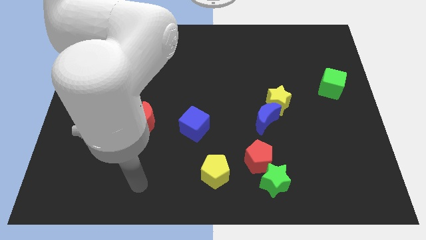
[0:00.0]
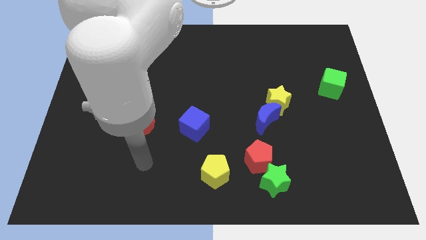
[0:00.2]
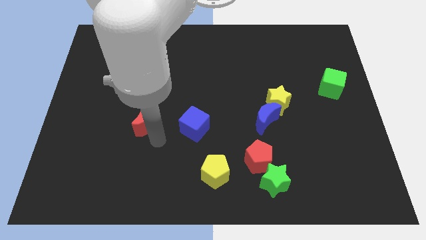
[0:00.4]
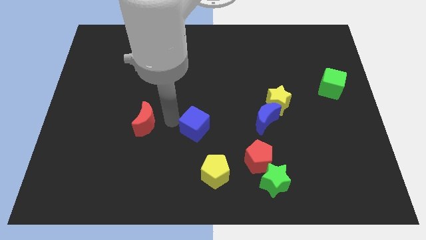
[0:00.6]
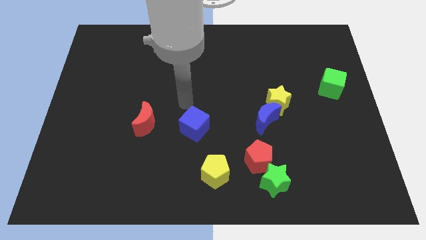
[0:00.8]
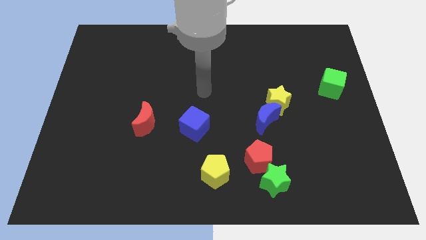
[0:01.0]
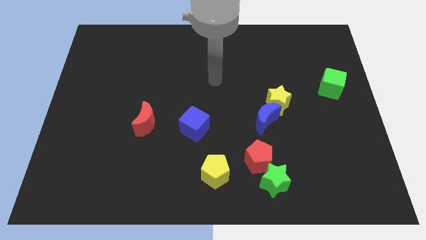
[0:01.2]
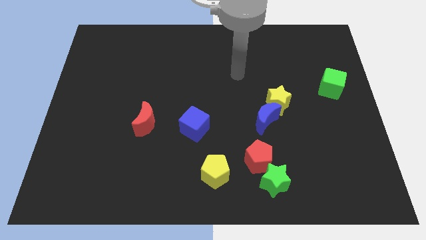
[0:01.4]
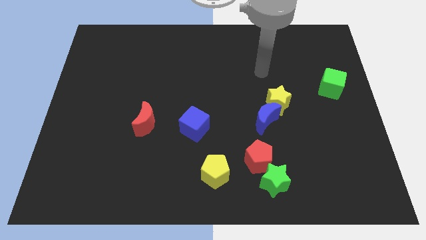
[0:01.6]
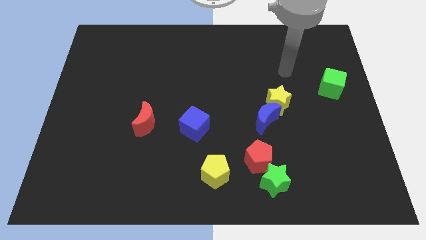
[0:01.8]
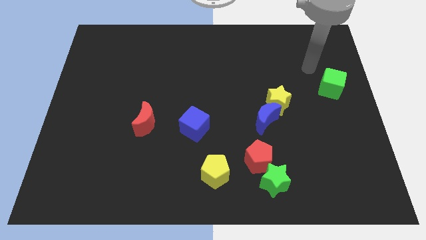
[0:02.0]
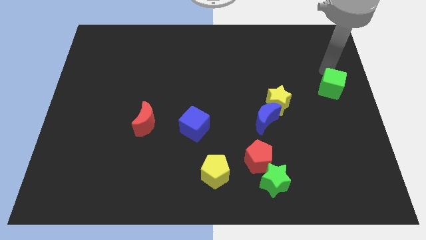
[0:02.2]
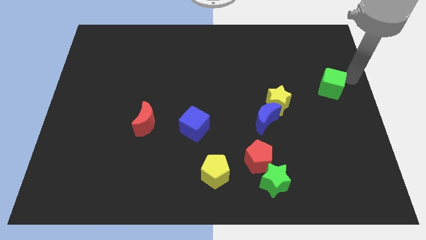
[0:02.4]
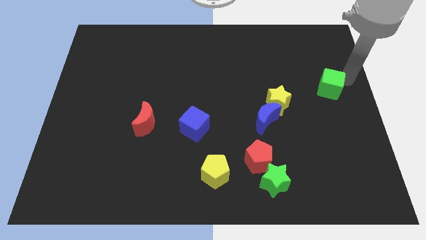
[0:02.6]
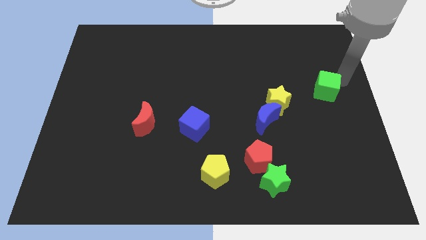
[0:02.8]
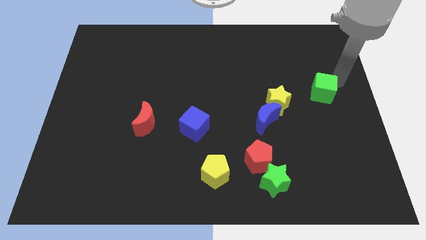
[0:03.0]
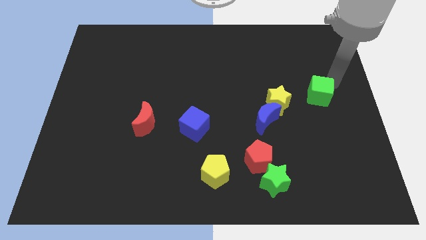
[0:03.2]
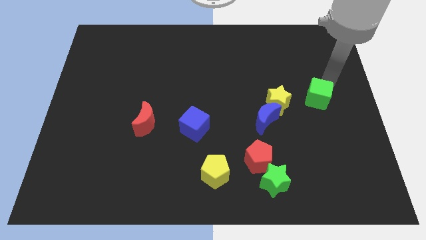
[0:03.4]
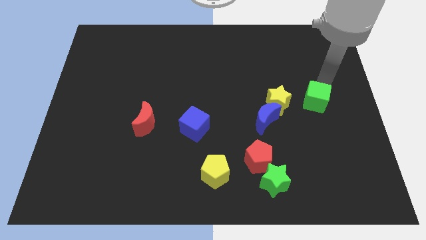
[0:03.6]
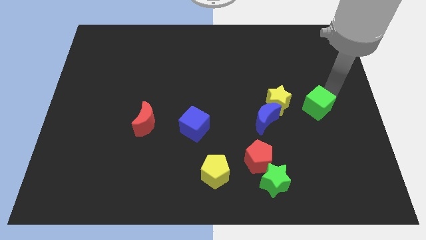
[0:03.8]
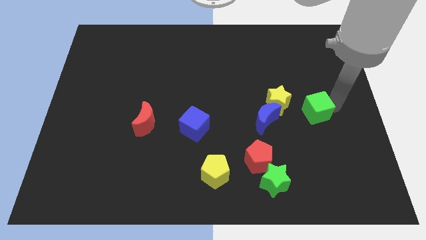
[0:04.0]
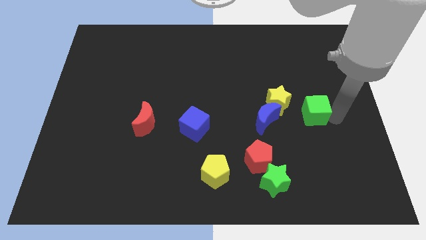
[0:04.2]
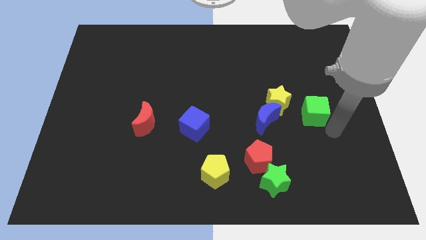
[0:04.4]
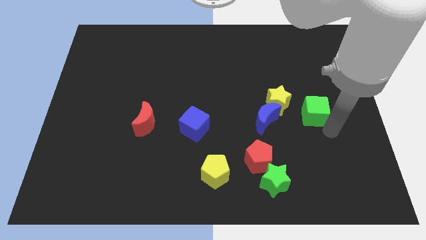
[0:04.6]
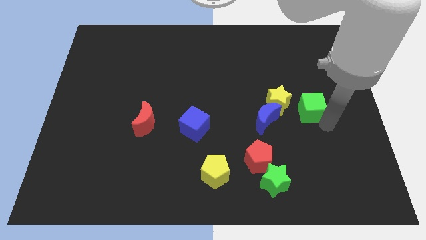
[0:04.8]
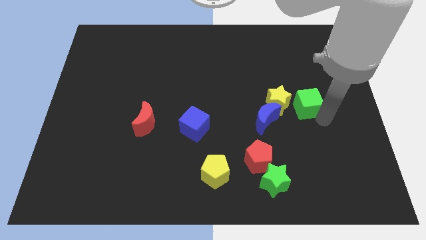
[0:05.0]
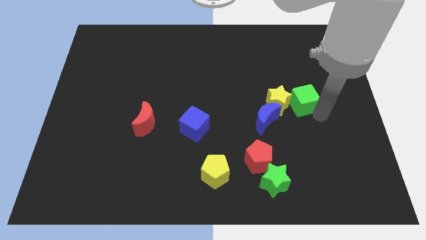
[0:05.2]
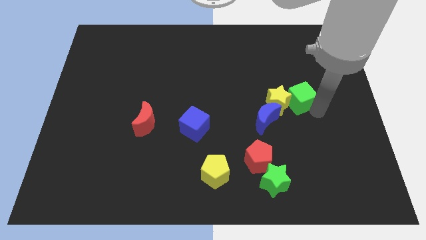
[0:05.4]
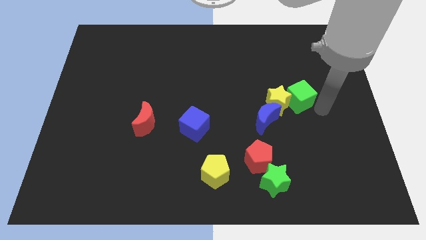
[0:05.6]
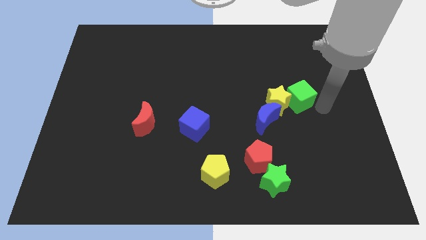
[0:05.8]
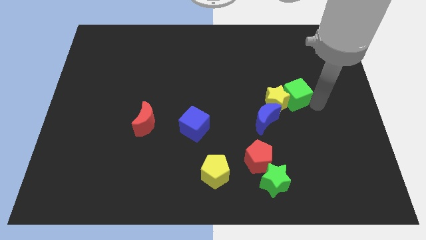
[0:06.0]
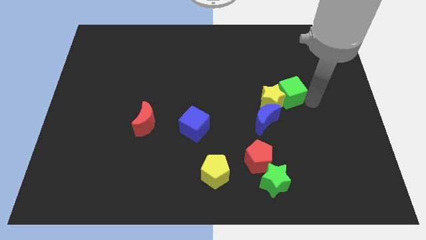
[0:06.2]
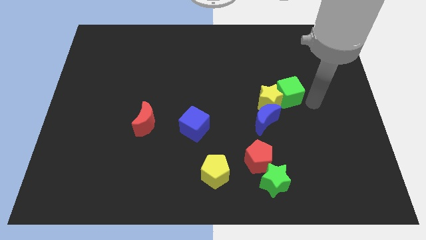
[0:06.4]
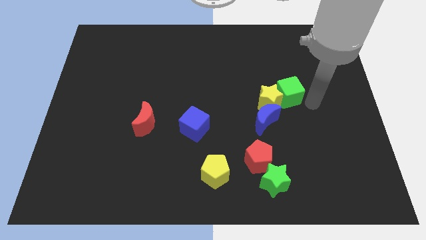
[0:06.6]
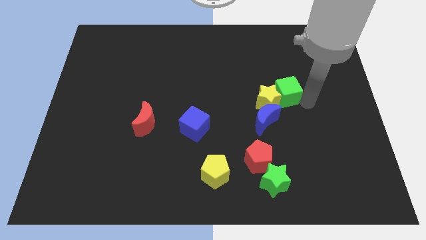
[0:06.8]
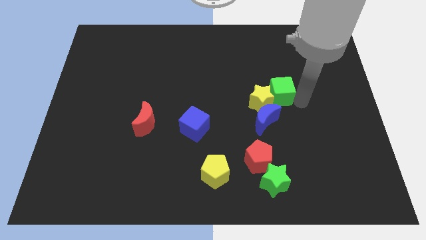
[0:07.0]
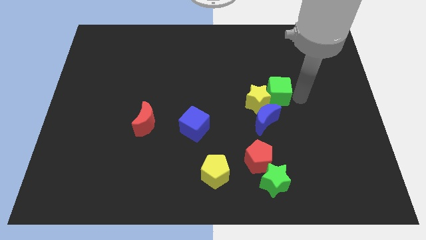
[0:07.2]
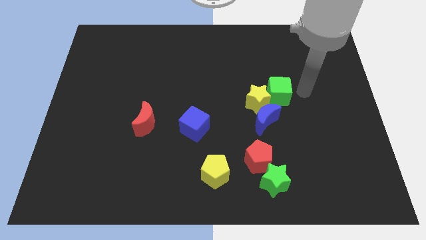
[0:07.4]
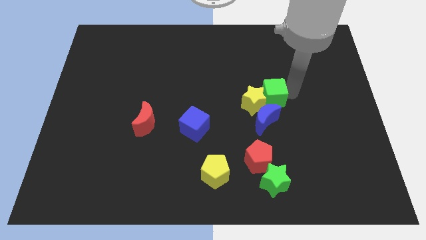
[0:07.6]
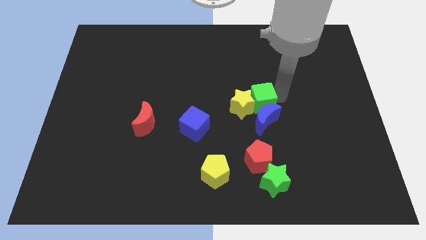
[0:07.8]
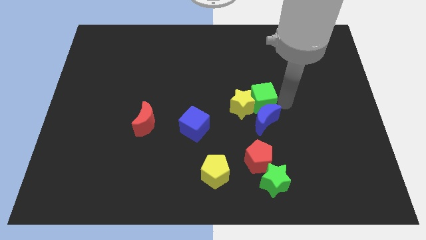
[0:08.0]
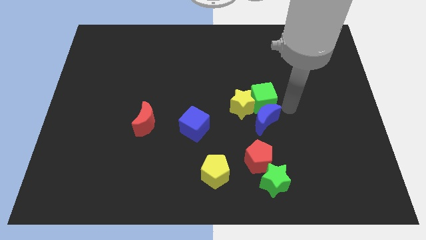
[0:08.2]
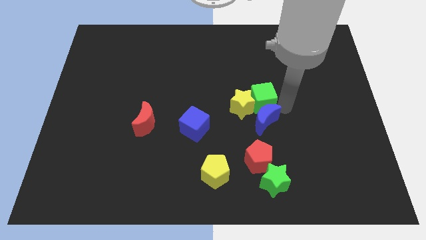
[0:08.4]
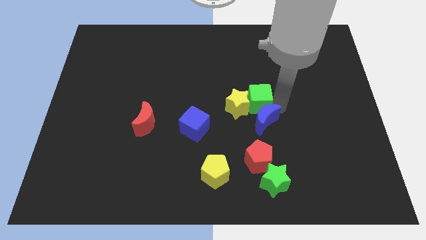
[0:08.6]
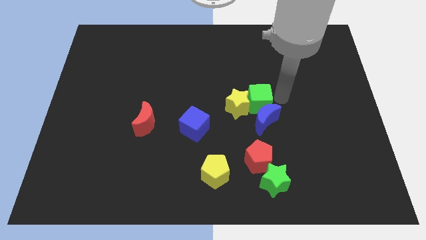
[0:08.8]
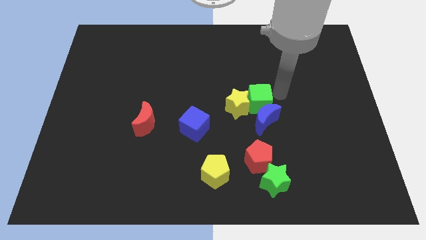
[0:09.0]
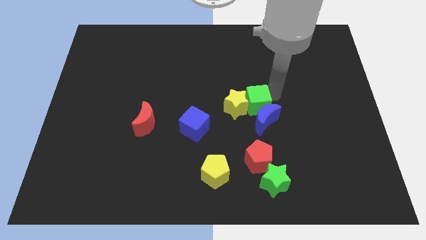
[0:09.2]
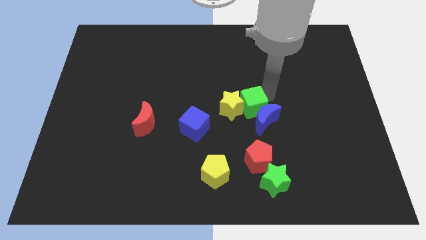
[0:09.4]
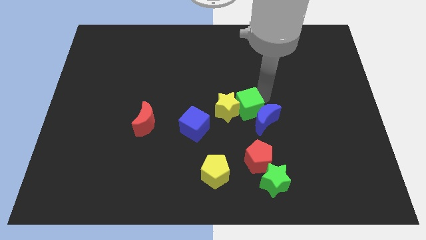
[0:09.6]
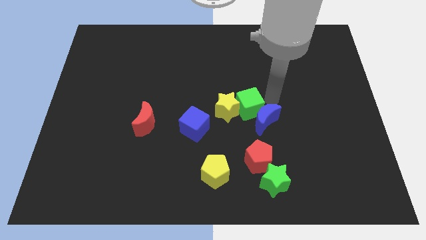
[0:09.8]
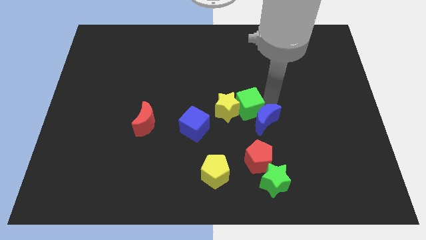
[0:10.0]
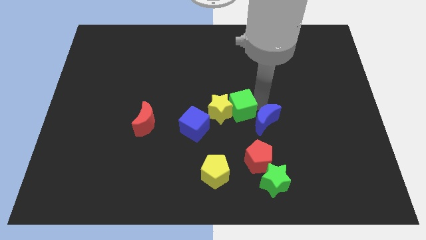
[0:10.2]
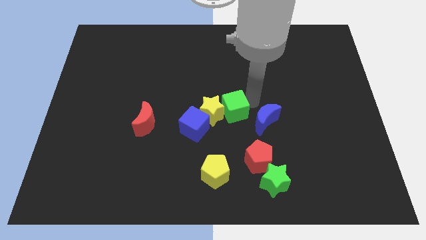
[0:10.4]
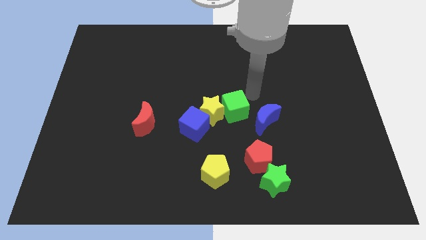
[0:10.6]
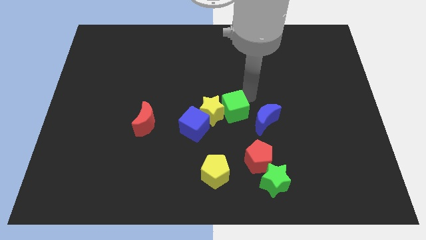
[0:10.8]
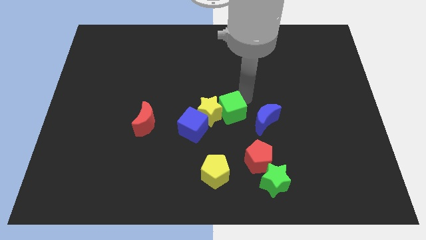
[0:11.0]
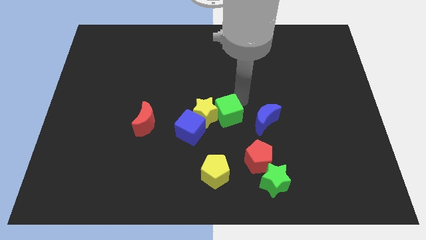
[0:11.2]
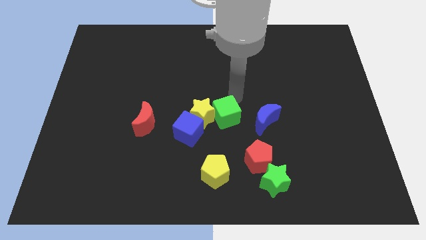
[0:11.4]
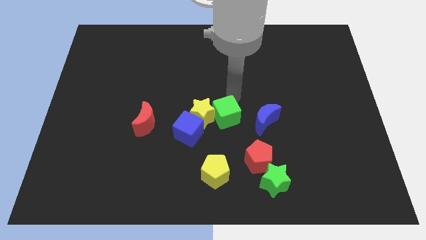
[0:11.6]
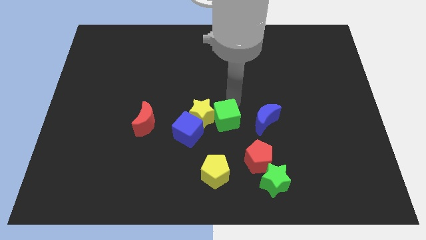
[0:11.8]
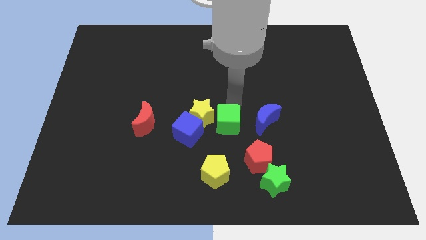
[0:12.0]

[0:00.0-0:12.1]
move the green cube diagonally down and to the left

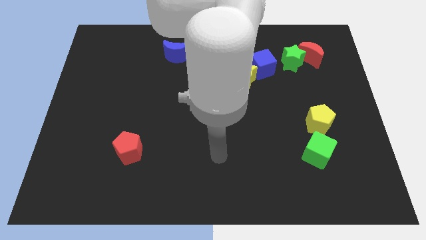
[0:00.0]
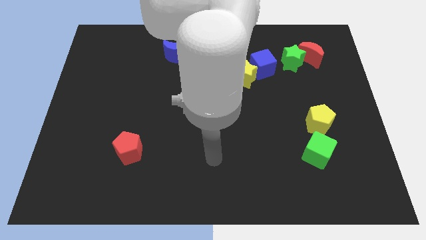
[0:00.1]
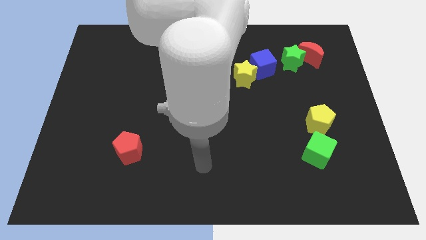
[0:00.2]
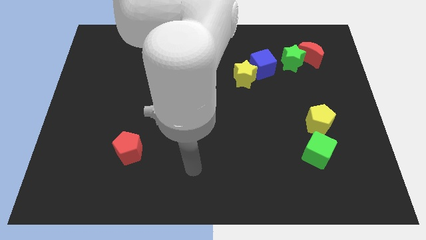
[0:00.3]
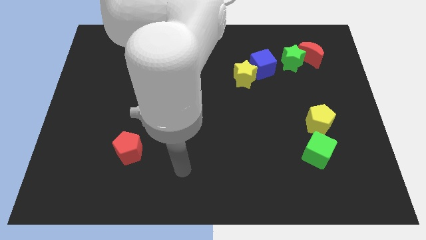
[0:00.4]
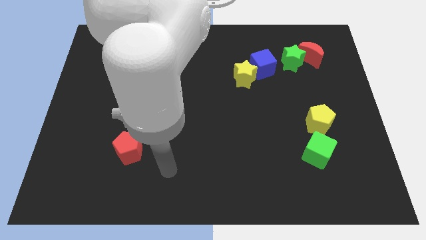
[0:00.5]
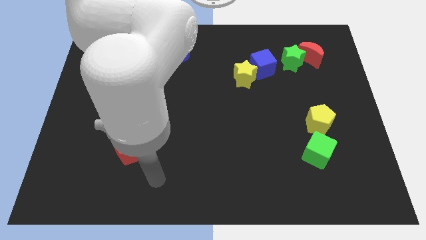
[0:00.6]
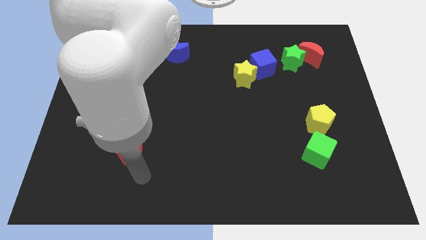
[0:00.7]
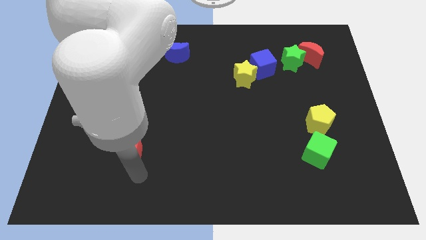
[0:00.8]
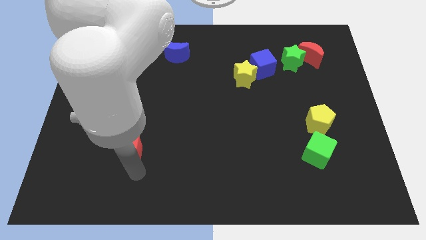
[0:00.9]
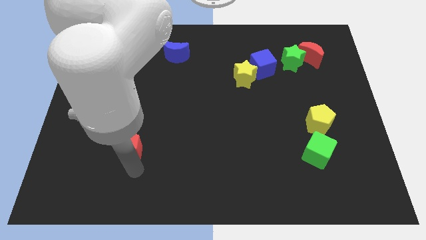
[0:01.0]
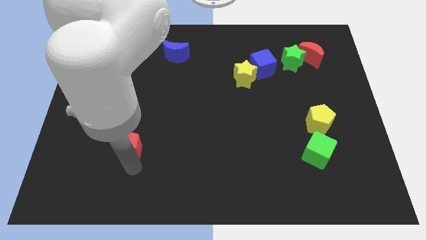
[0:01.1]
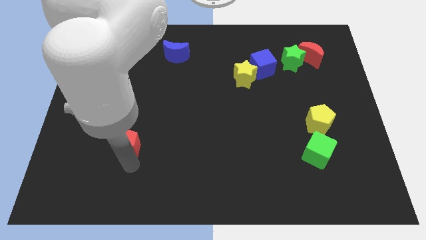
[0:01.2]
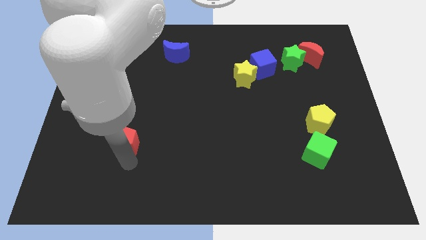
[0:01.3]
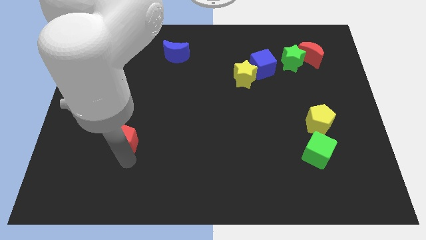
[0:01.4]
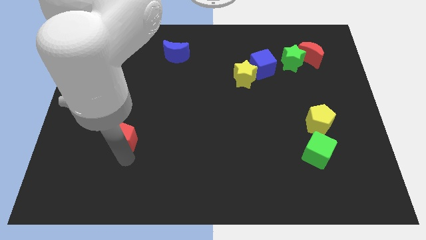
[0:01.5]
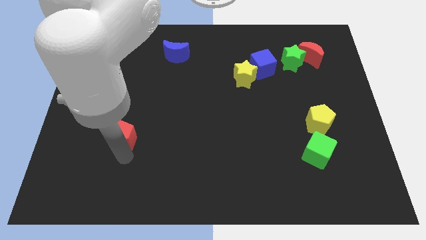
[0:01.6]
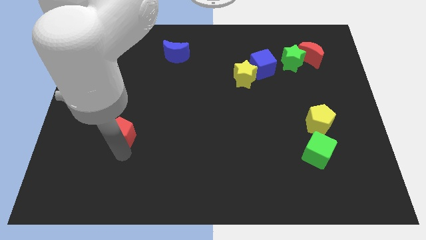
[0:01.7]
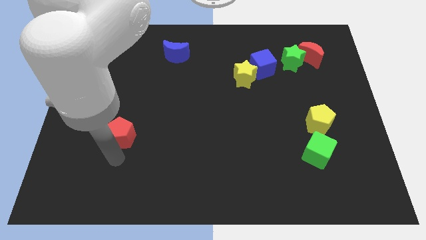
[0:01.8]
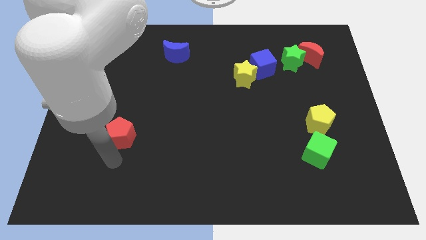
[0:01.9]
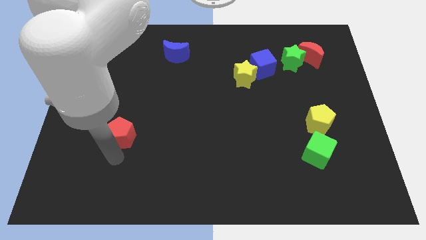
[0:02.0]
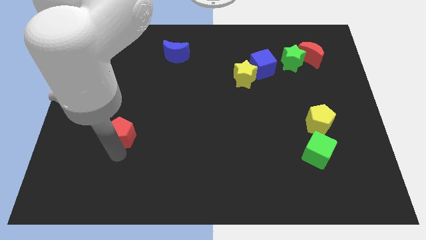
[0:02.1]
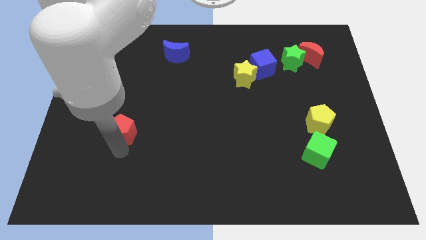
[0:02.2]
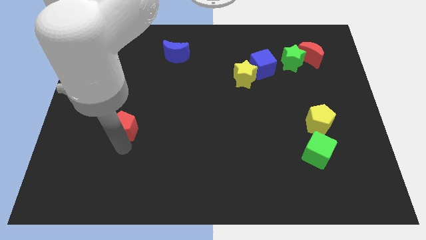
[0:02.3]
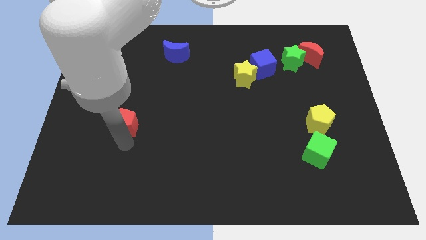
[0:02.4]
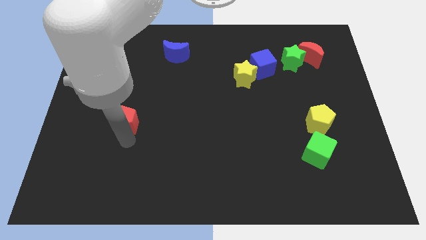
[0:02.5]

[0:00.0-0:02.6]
move the red pentagon a little bit up
